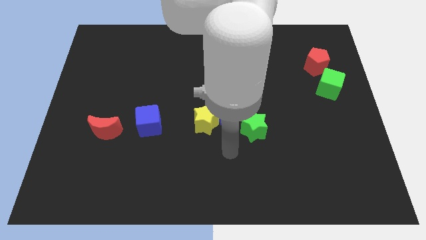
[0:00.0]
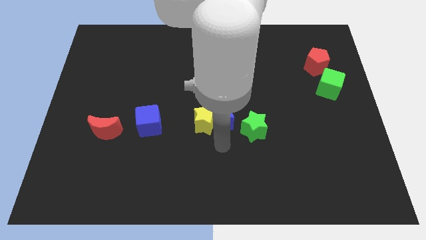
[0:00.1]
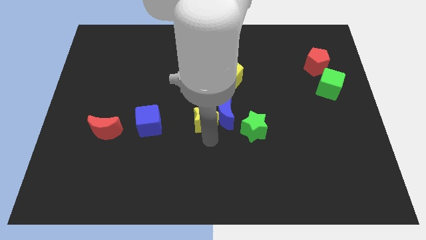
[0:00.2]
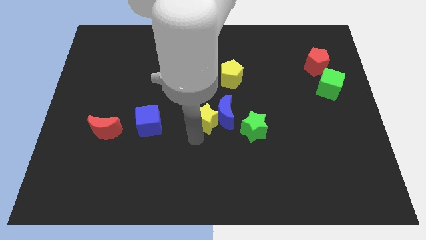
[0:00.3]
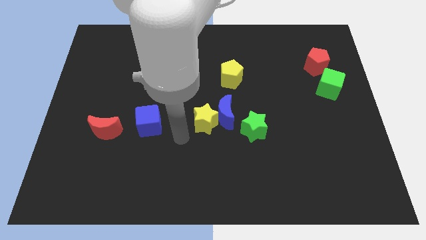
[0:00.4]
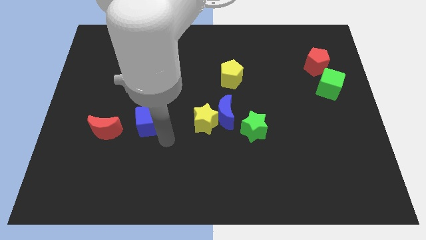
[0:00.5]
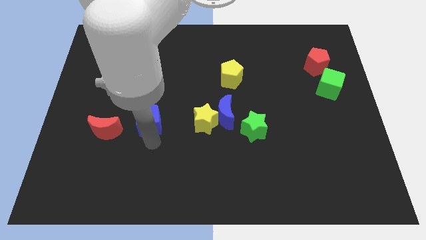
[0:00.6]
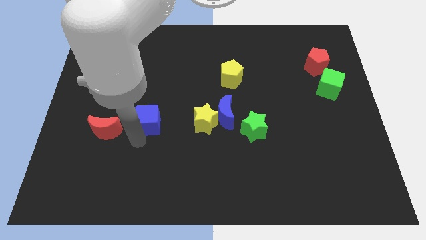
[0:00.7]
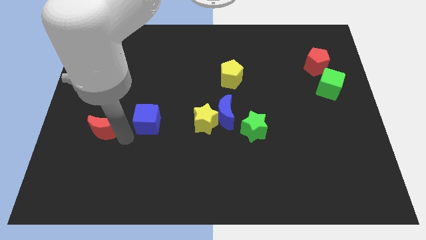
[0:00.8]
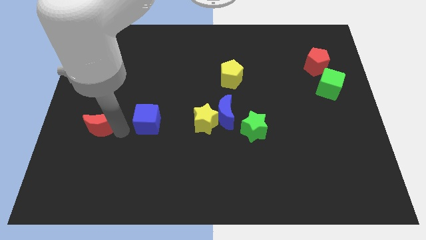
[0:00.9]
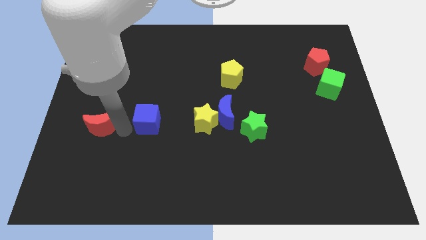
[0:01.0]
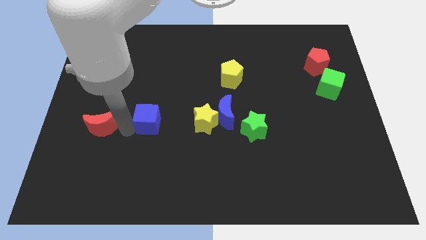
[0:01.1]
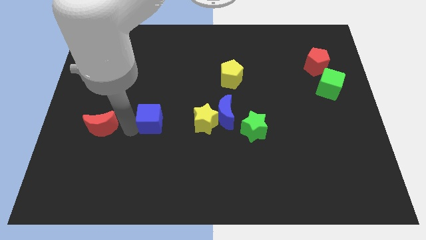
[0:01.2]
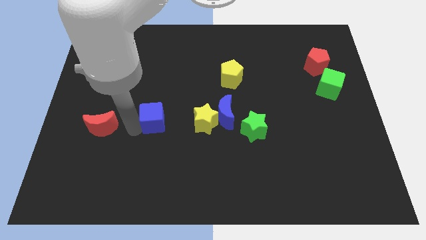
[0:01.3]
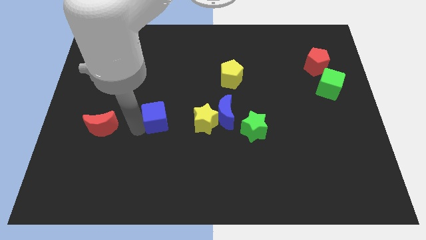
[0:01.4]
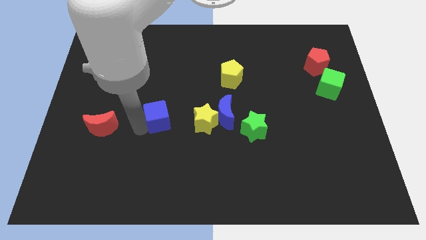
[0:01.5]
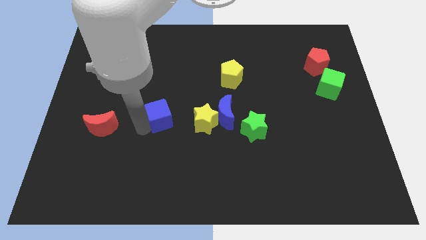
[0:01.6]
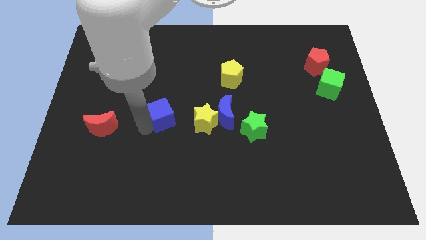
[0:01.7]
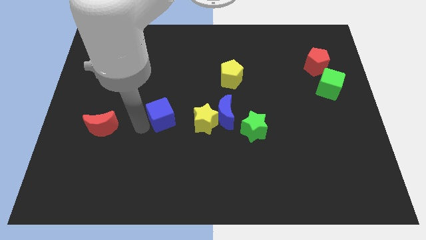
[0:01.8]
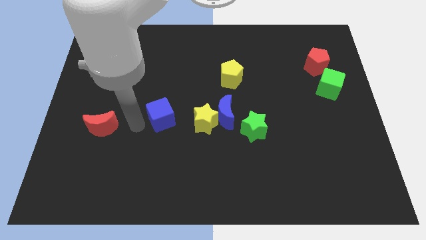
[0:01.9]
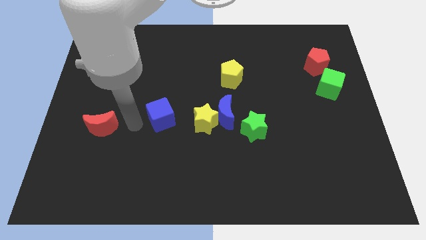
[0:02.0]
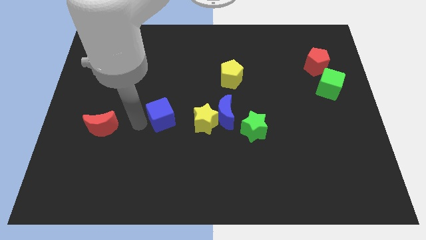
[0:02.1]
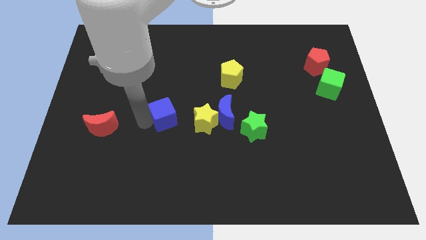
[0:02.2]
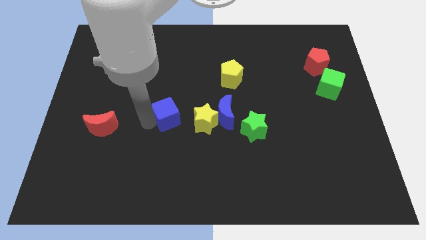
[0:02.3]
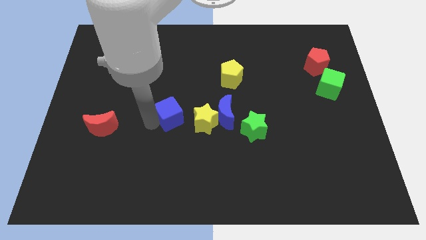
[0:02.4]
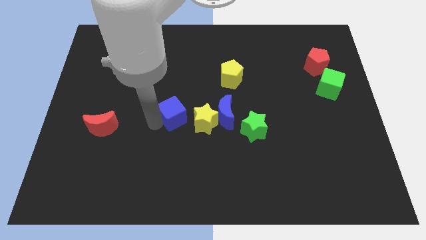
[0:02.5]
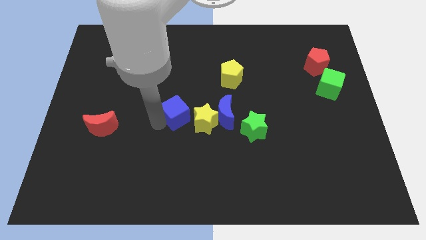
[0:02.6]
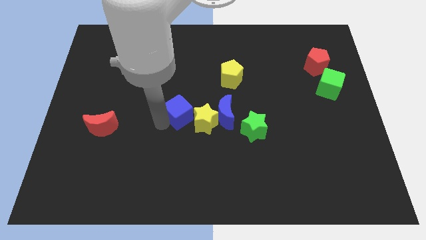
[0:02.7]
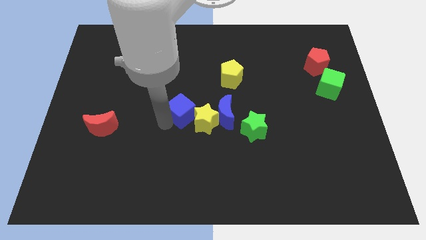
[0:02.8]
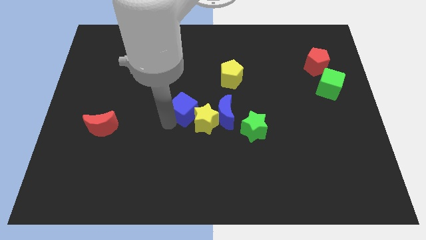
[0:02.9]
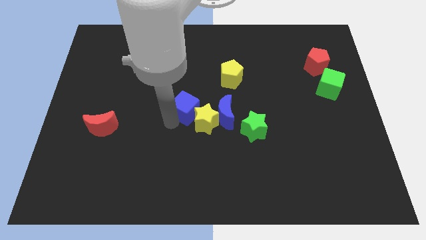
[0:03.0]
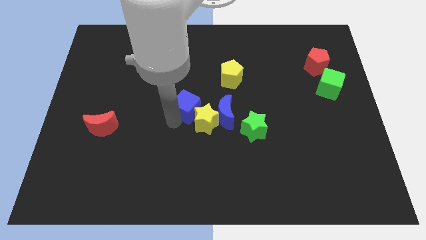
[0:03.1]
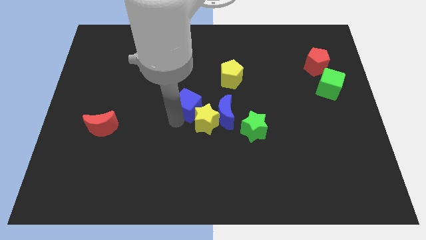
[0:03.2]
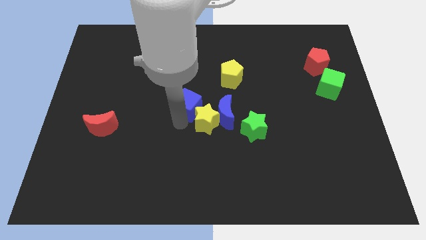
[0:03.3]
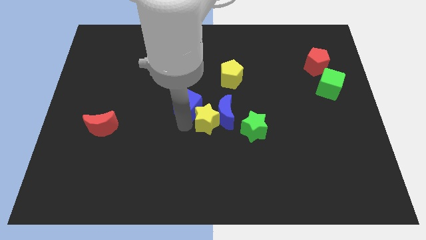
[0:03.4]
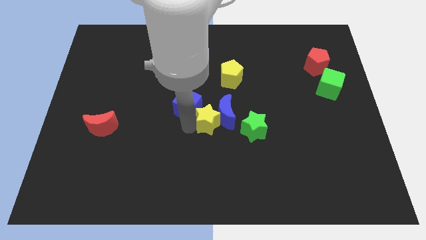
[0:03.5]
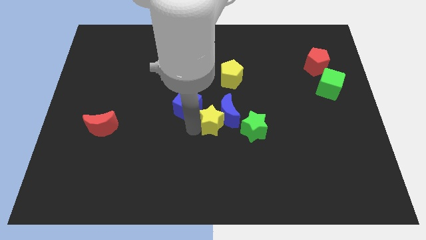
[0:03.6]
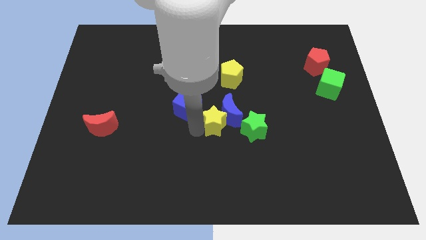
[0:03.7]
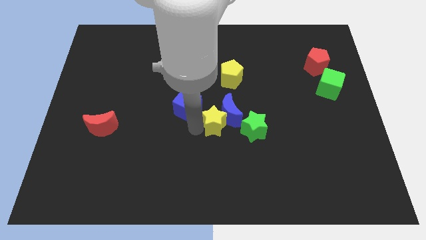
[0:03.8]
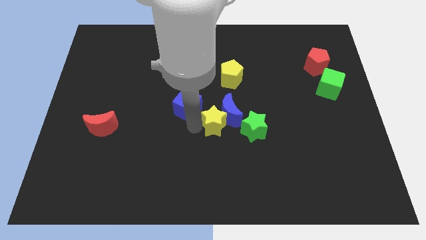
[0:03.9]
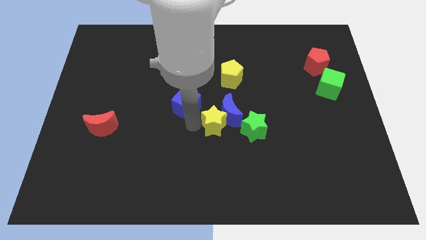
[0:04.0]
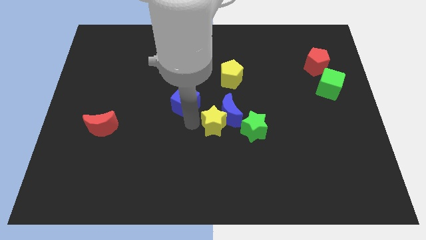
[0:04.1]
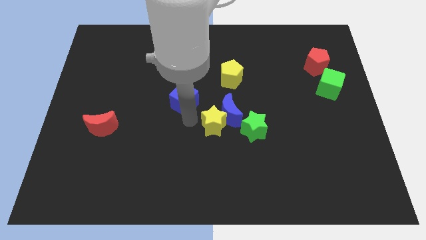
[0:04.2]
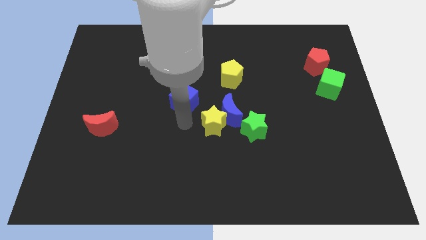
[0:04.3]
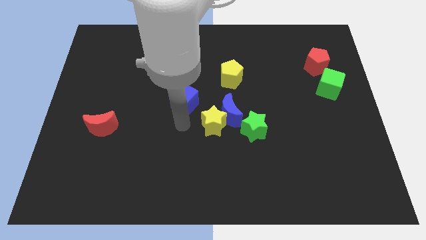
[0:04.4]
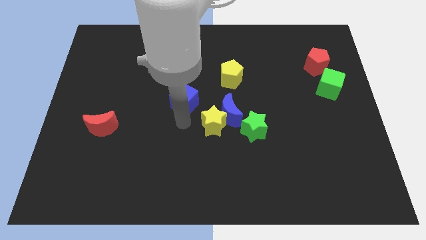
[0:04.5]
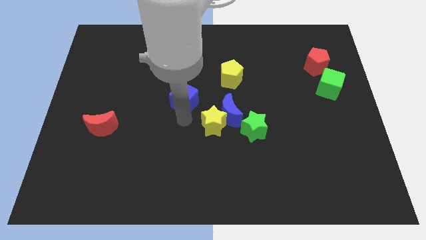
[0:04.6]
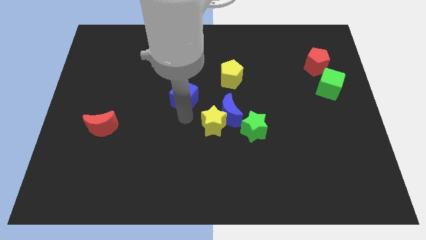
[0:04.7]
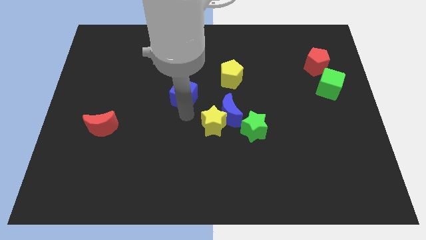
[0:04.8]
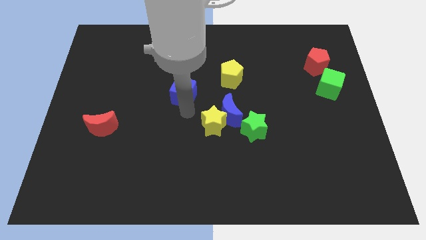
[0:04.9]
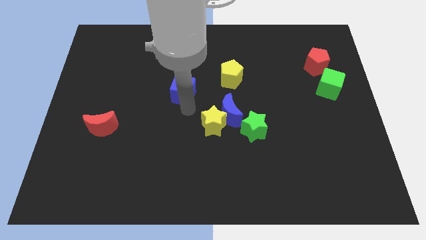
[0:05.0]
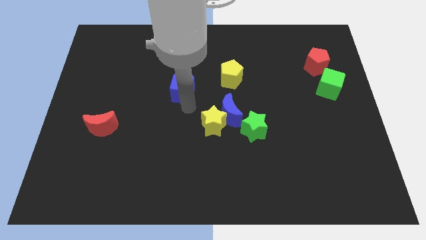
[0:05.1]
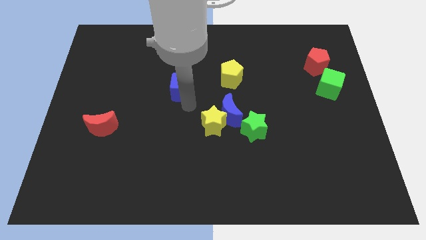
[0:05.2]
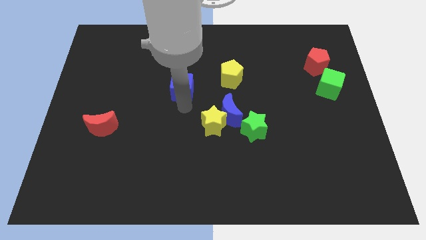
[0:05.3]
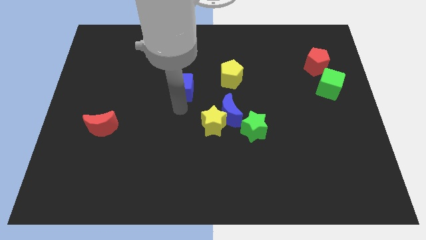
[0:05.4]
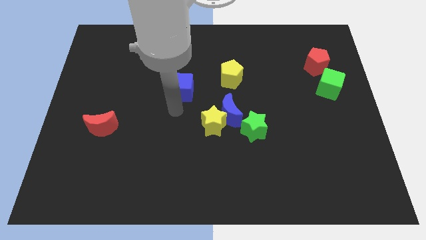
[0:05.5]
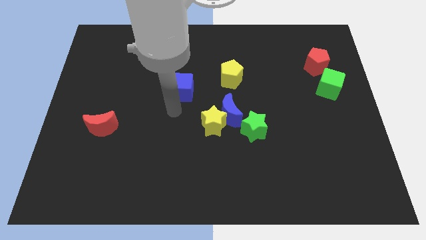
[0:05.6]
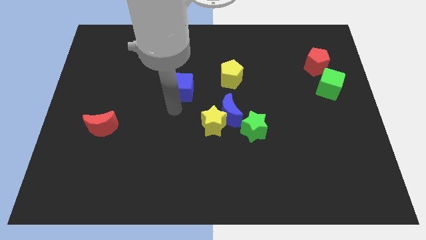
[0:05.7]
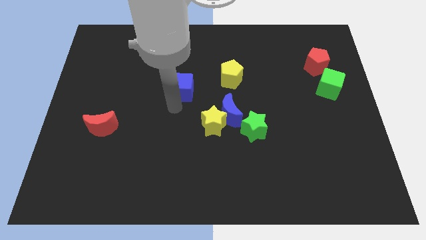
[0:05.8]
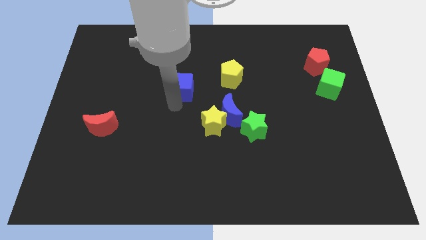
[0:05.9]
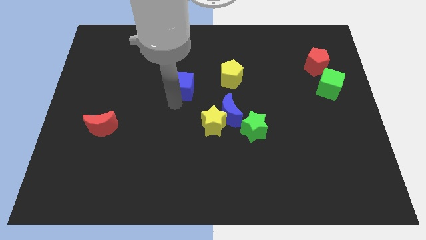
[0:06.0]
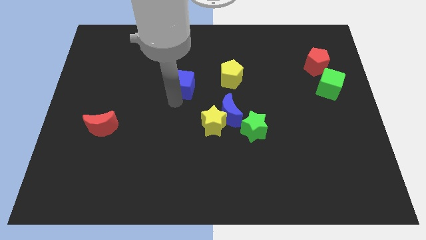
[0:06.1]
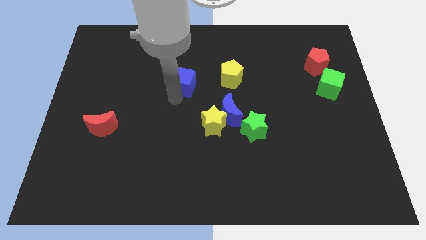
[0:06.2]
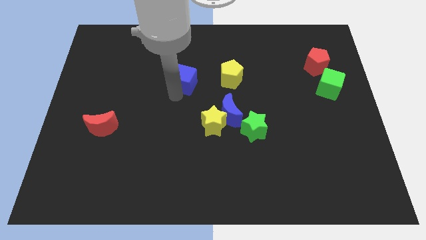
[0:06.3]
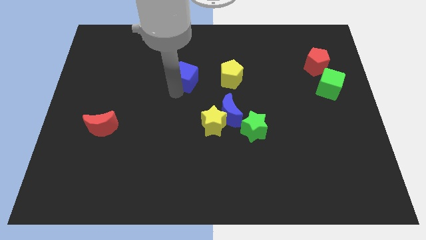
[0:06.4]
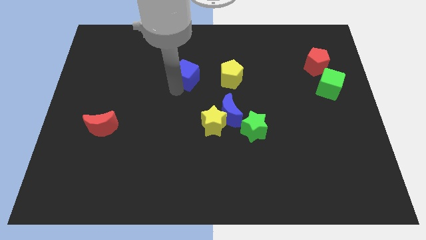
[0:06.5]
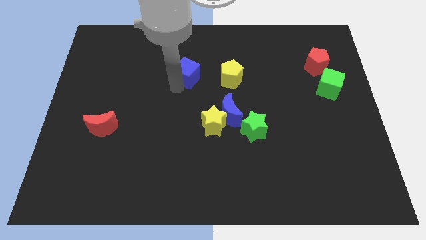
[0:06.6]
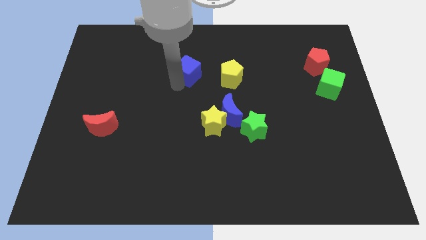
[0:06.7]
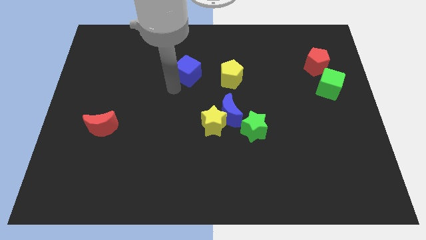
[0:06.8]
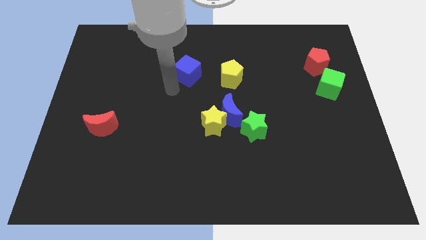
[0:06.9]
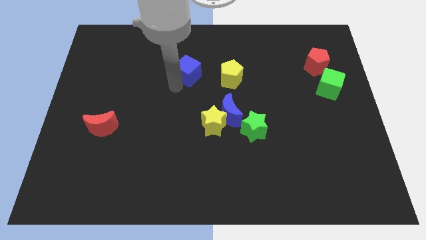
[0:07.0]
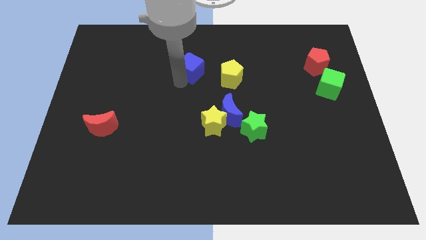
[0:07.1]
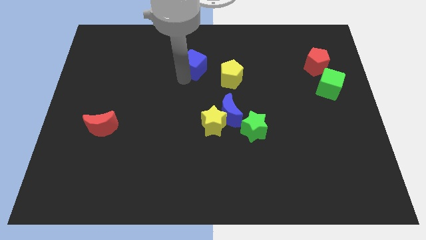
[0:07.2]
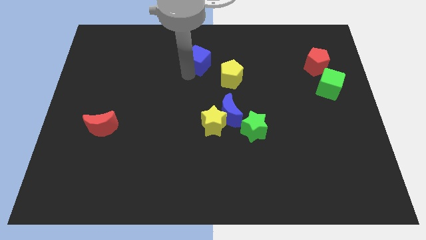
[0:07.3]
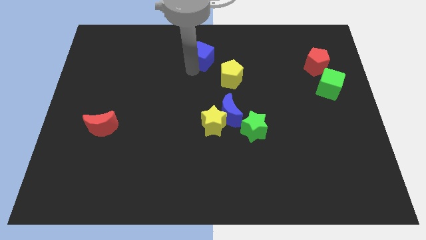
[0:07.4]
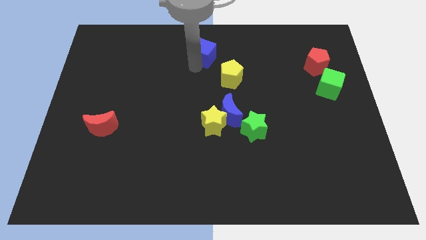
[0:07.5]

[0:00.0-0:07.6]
push the blue cube to the top side
